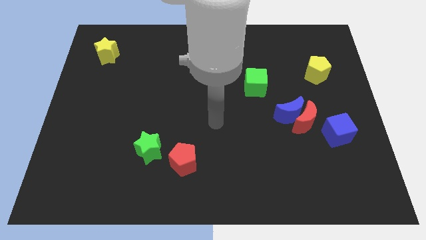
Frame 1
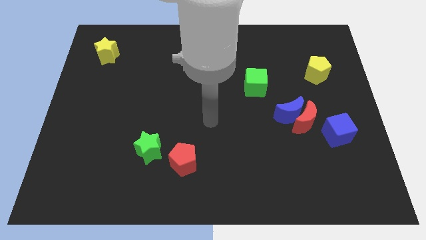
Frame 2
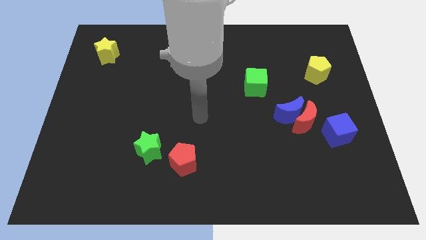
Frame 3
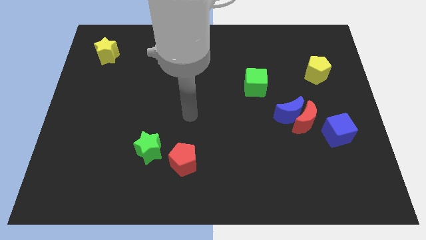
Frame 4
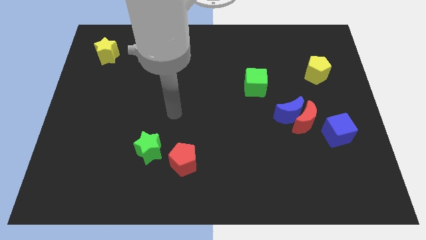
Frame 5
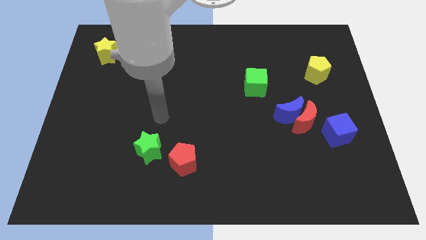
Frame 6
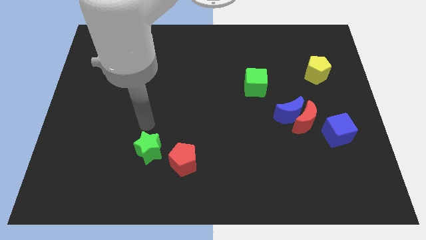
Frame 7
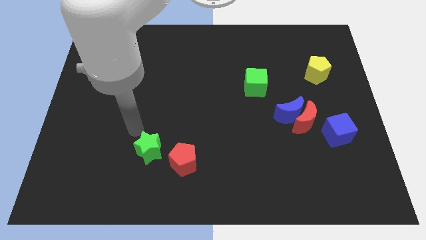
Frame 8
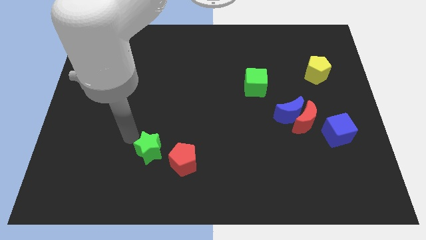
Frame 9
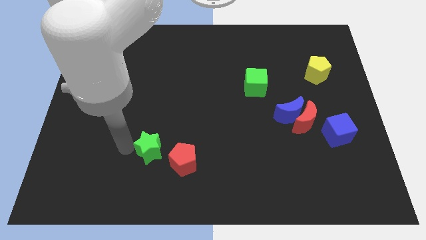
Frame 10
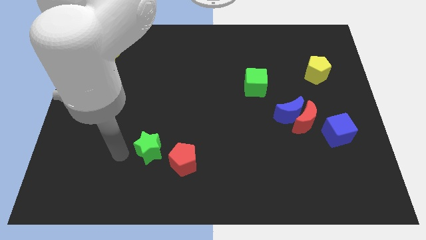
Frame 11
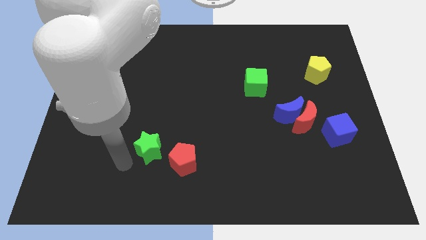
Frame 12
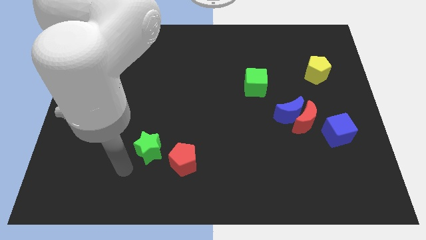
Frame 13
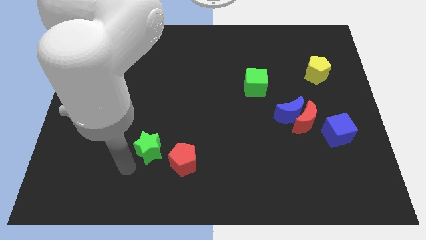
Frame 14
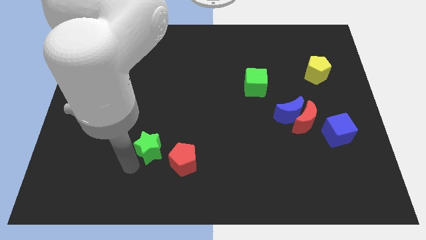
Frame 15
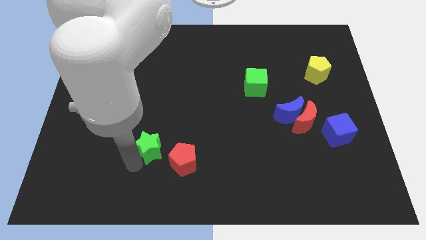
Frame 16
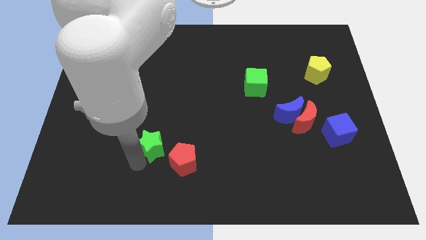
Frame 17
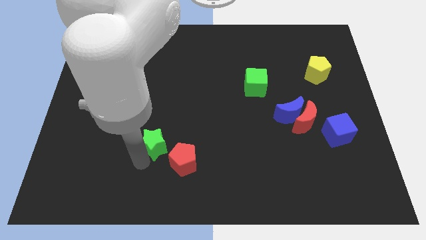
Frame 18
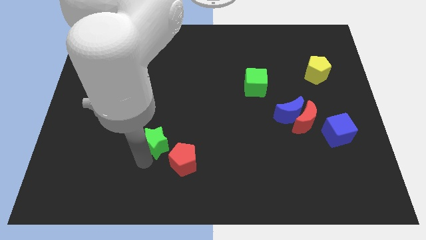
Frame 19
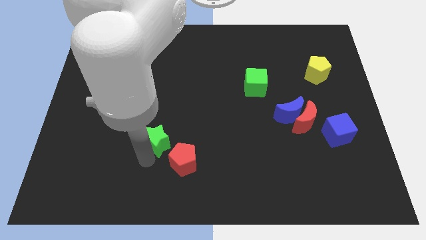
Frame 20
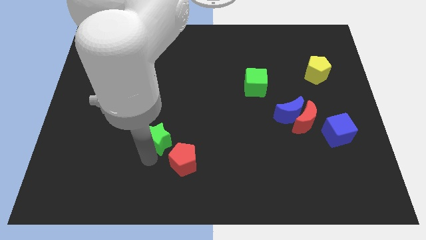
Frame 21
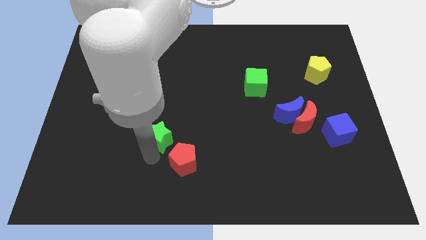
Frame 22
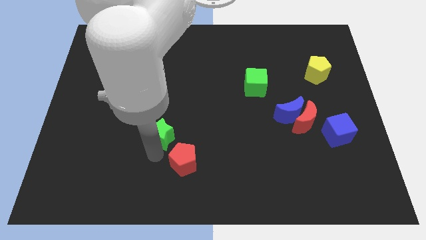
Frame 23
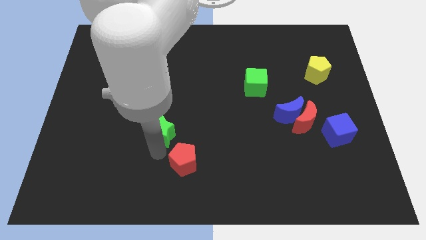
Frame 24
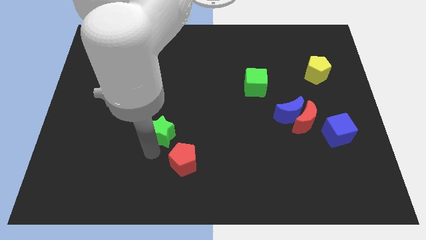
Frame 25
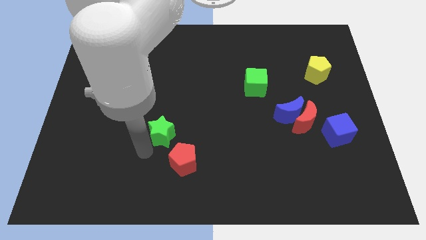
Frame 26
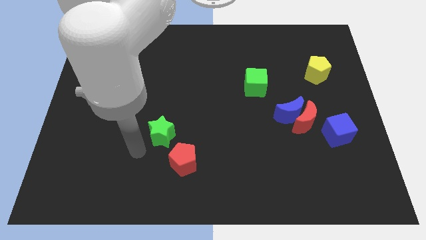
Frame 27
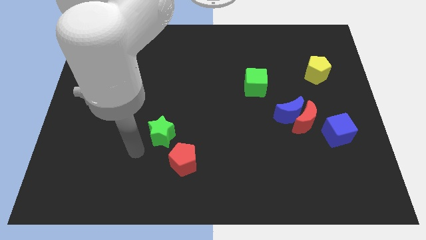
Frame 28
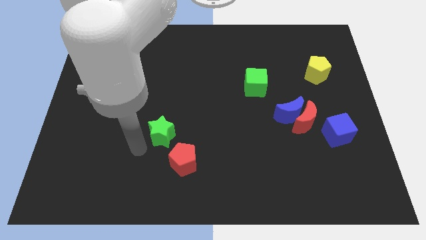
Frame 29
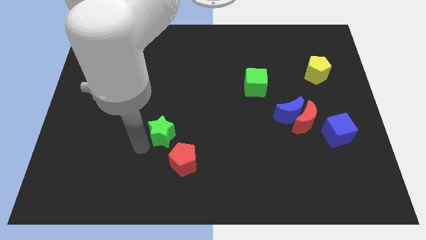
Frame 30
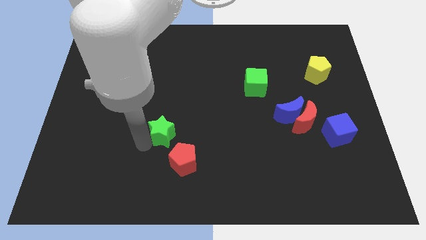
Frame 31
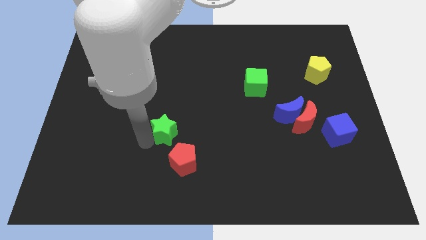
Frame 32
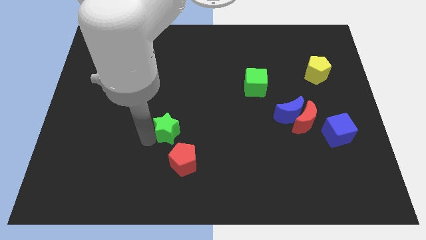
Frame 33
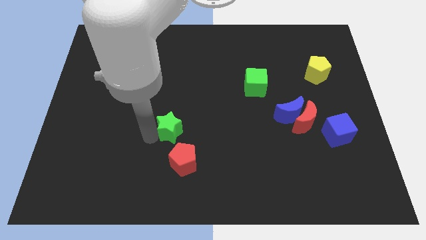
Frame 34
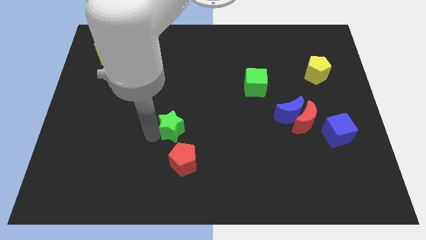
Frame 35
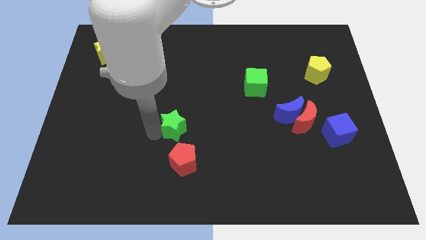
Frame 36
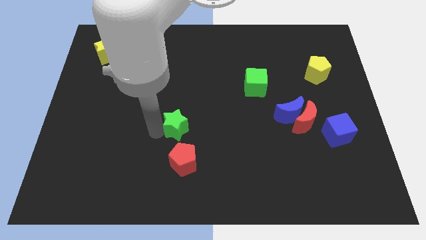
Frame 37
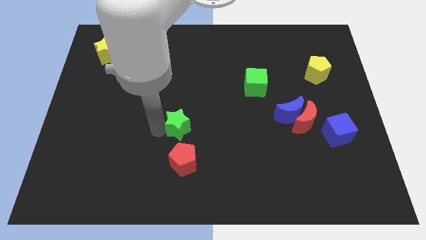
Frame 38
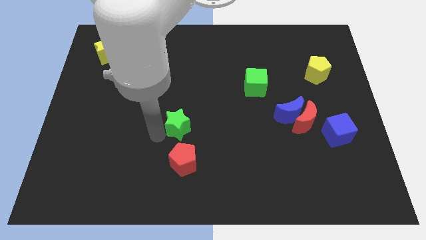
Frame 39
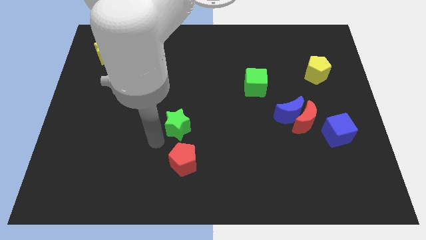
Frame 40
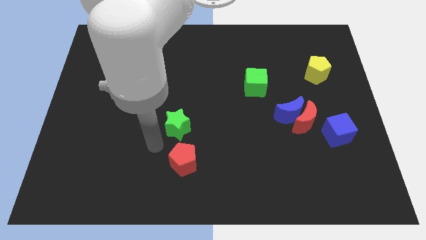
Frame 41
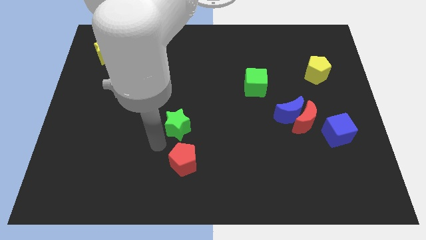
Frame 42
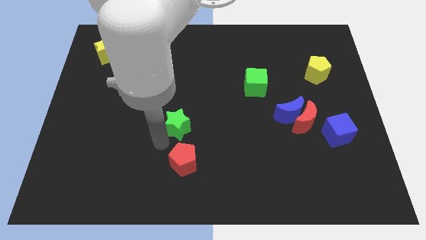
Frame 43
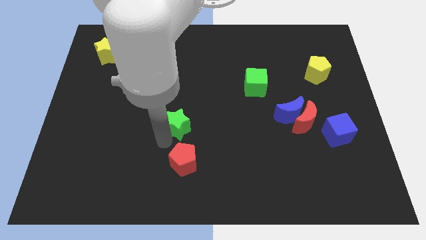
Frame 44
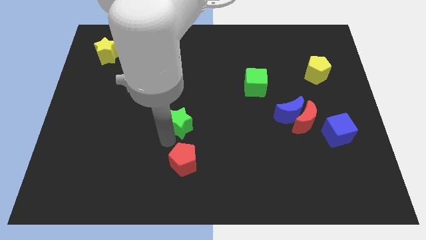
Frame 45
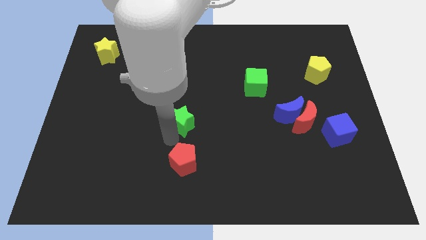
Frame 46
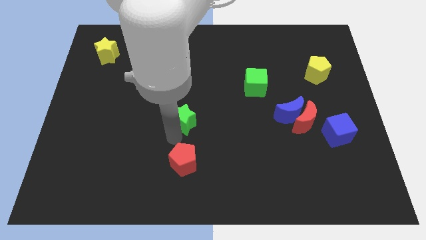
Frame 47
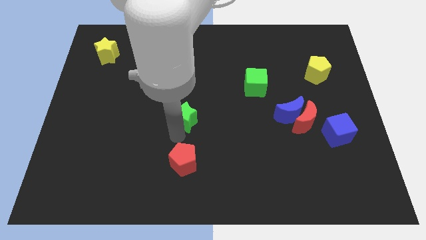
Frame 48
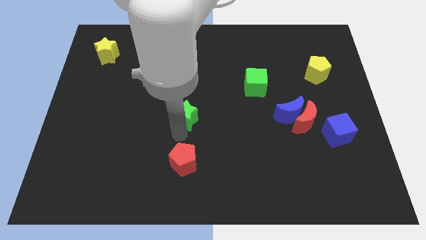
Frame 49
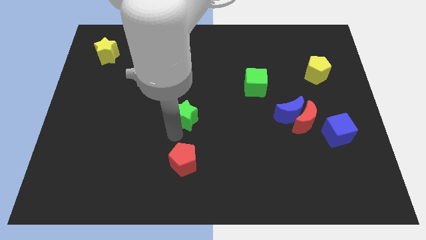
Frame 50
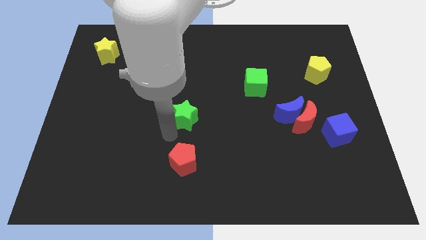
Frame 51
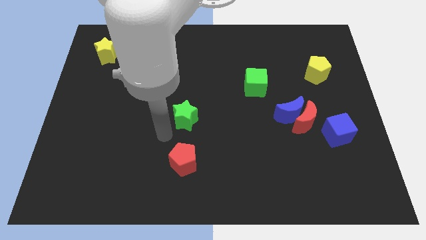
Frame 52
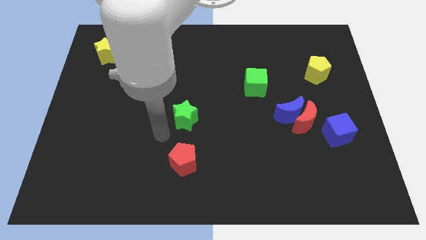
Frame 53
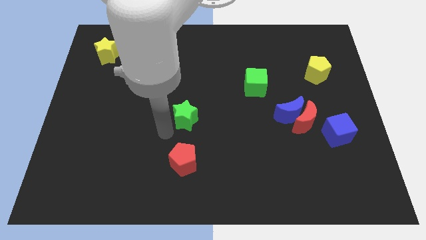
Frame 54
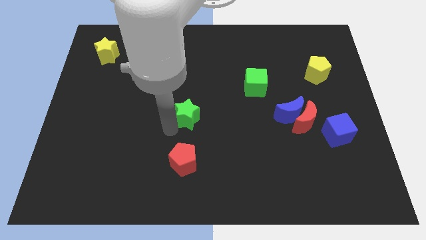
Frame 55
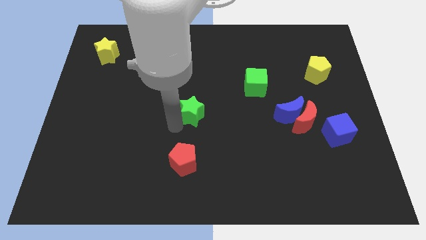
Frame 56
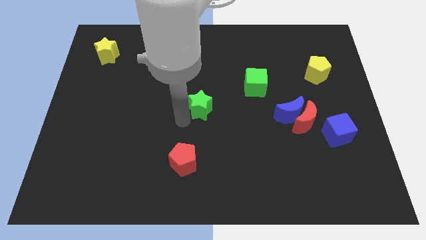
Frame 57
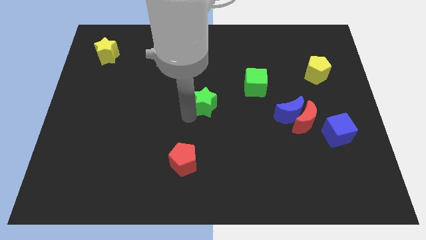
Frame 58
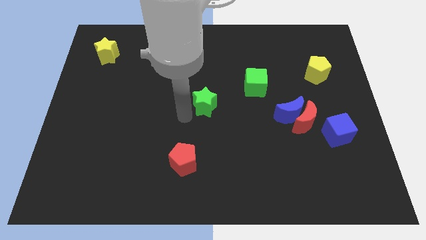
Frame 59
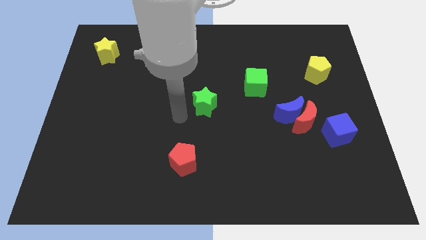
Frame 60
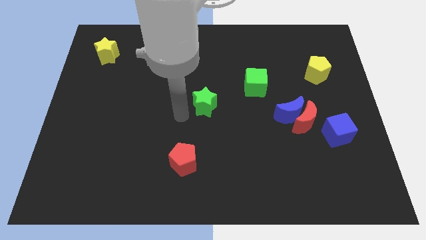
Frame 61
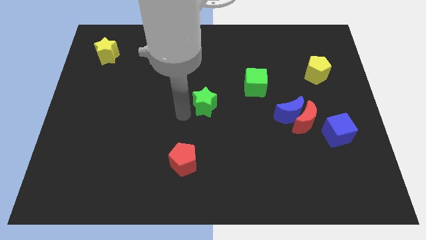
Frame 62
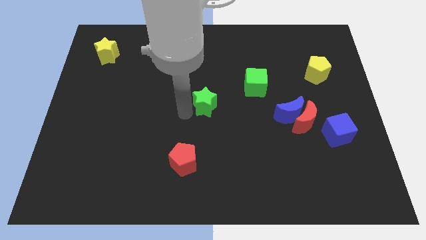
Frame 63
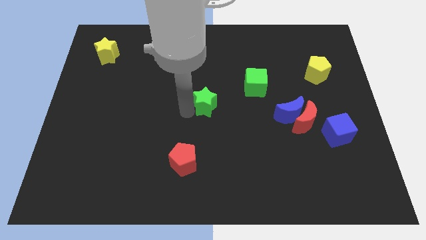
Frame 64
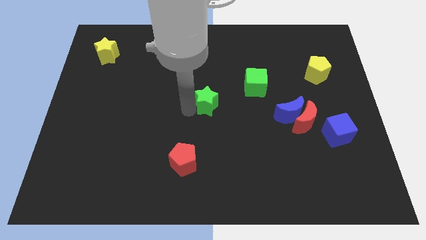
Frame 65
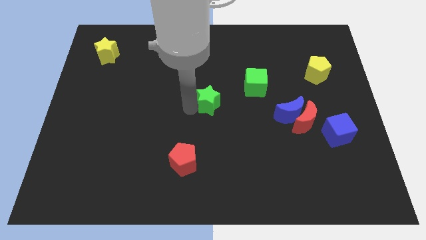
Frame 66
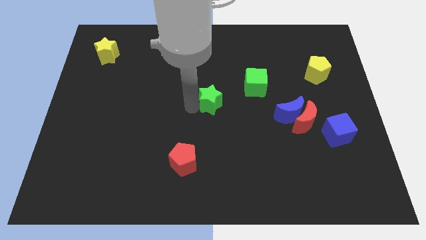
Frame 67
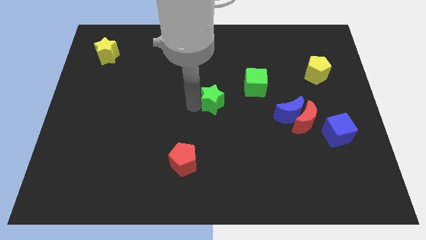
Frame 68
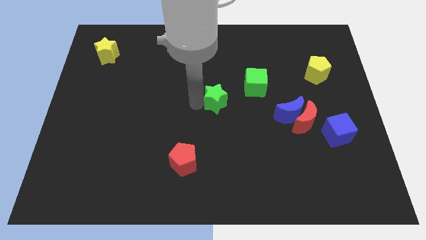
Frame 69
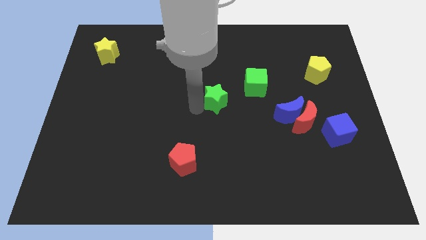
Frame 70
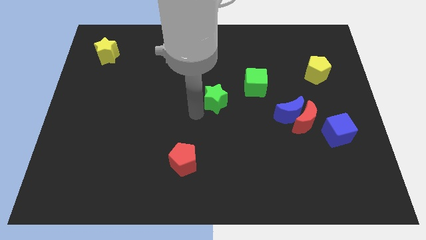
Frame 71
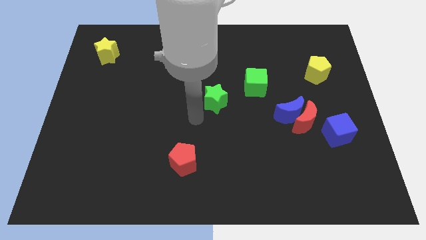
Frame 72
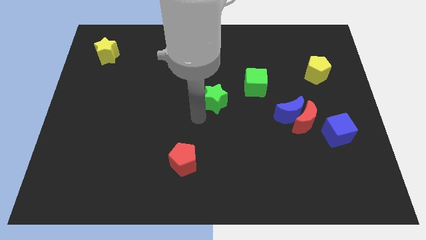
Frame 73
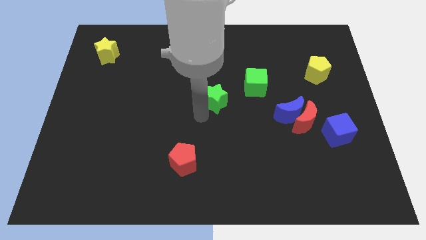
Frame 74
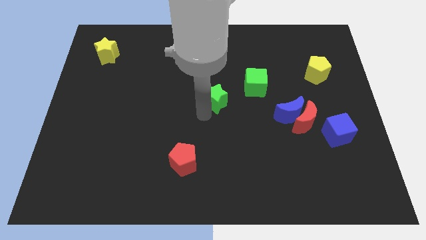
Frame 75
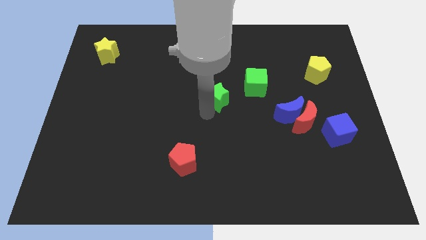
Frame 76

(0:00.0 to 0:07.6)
move the green star diagonally up and to the right

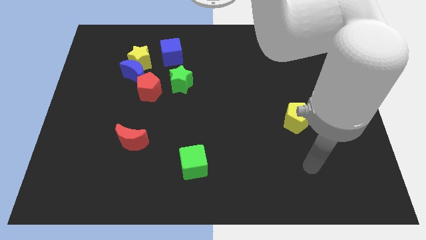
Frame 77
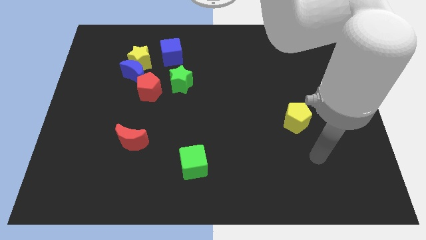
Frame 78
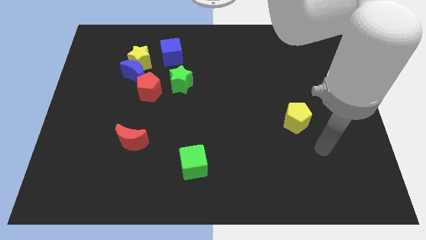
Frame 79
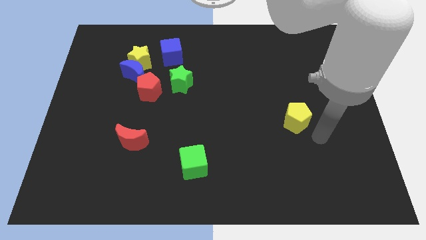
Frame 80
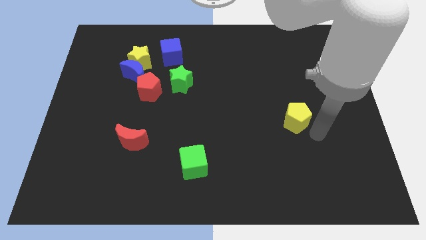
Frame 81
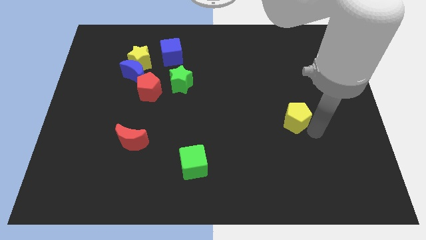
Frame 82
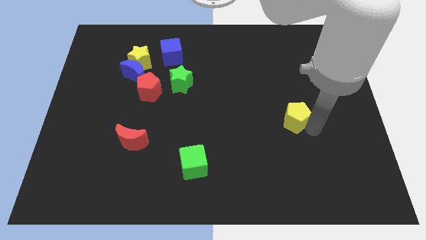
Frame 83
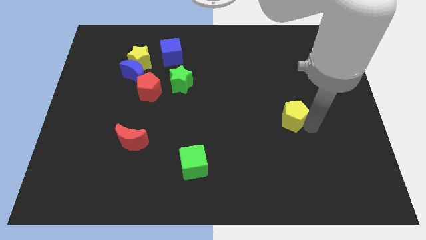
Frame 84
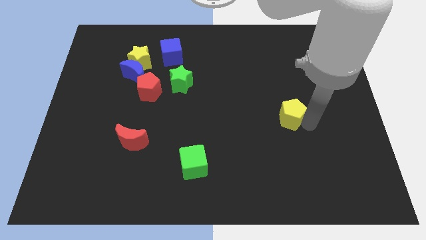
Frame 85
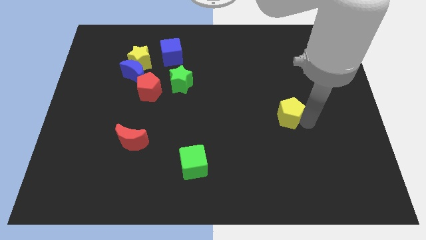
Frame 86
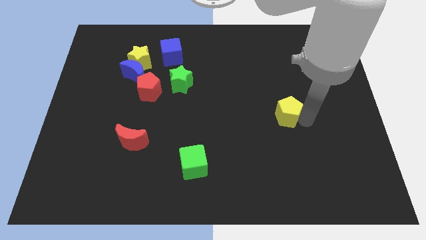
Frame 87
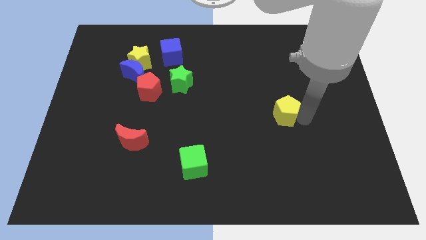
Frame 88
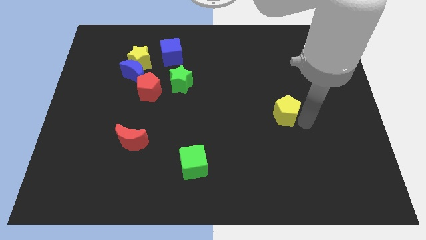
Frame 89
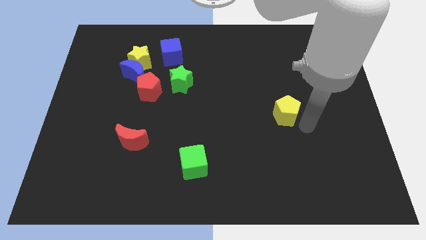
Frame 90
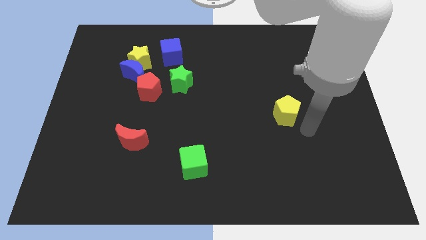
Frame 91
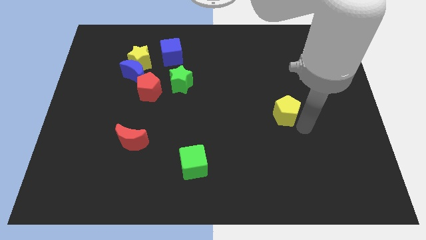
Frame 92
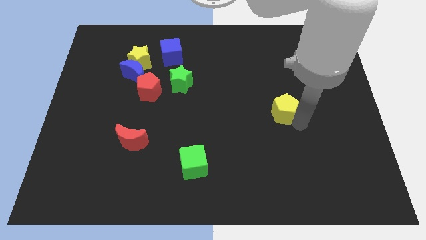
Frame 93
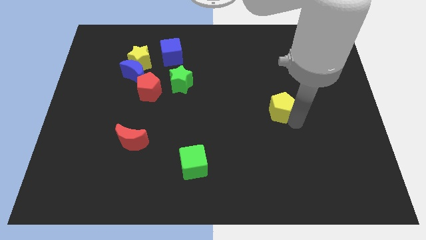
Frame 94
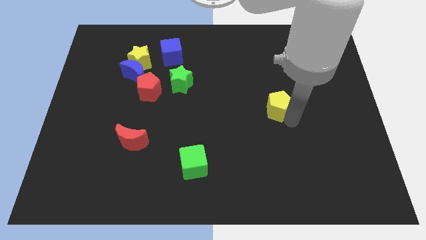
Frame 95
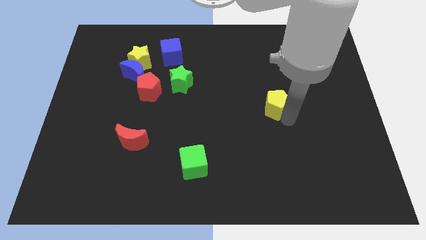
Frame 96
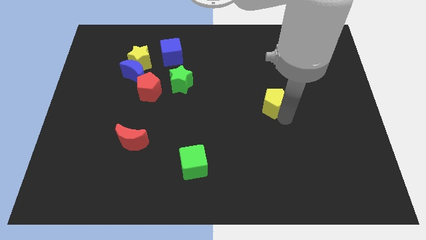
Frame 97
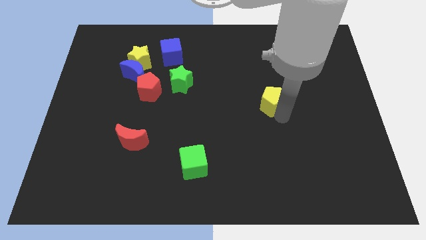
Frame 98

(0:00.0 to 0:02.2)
push the yellow pentagon up and left somewhat
